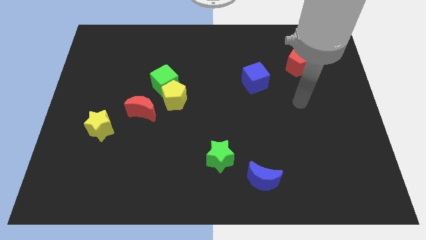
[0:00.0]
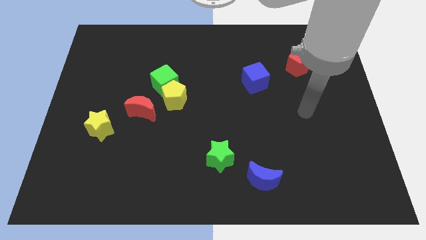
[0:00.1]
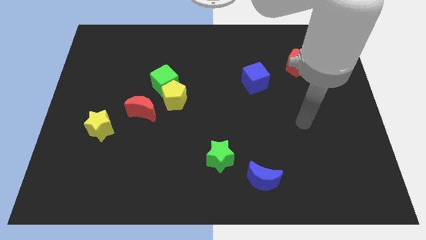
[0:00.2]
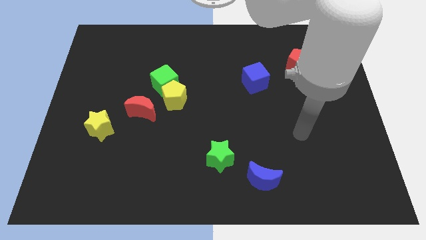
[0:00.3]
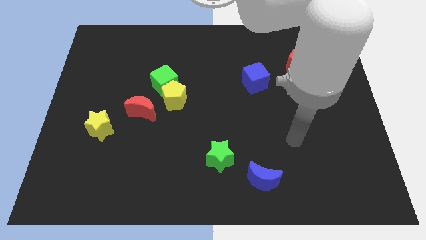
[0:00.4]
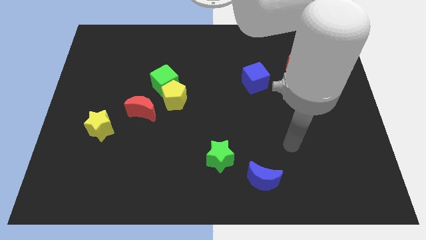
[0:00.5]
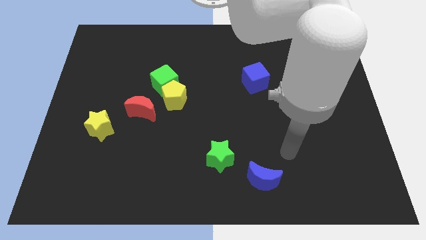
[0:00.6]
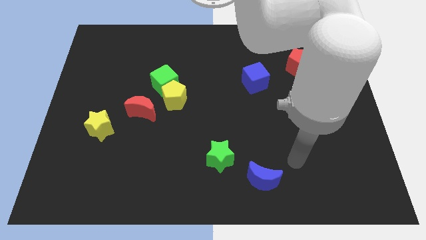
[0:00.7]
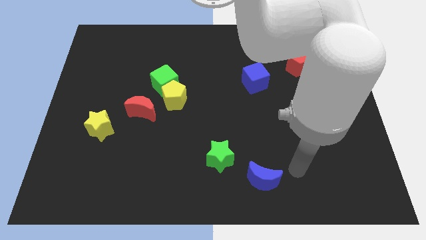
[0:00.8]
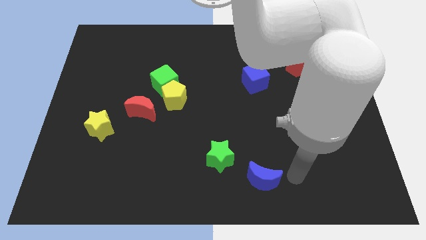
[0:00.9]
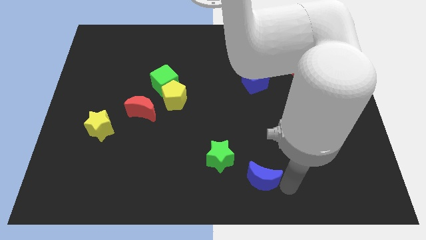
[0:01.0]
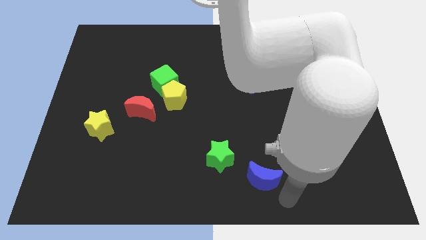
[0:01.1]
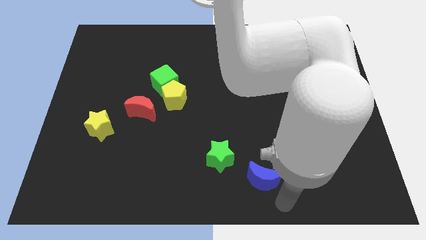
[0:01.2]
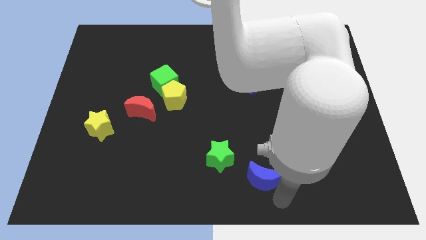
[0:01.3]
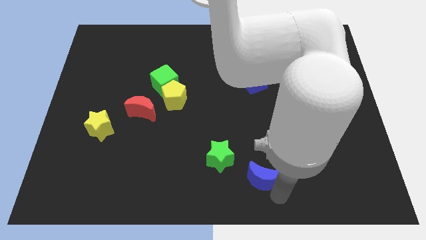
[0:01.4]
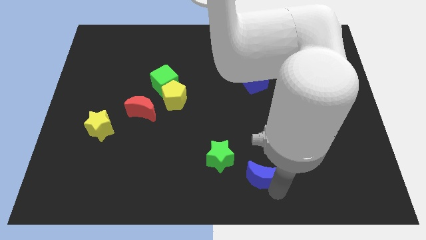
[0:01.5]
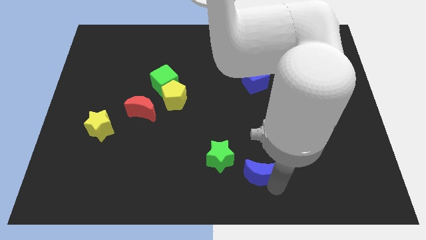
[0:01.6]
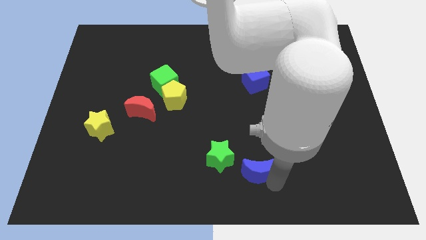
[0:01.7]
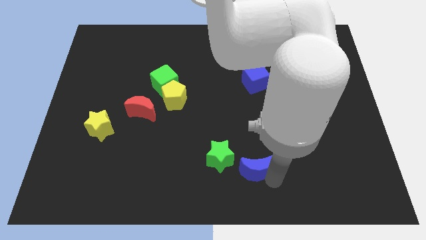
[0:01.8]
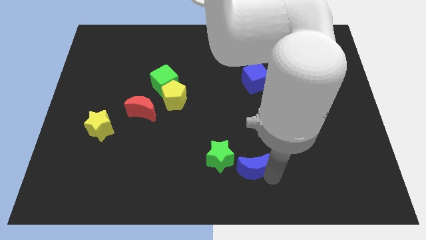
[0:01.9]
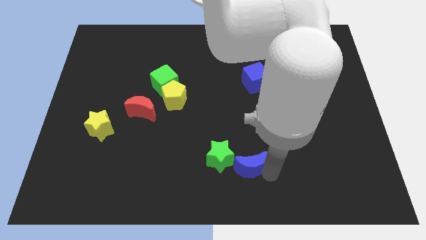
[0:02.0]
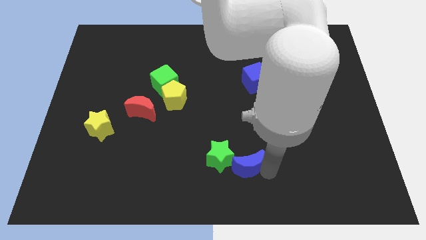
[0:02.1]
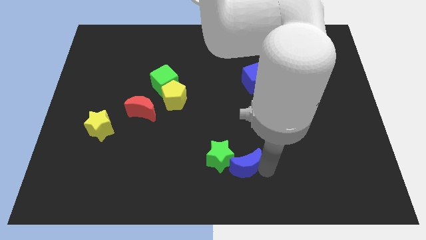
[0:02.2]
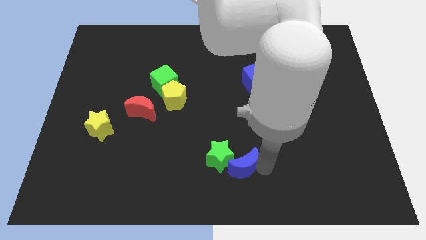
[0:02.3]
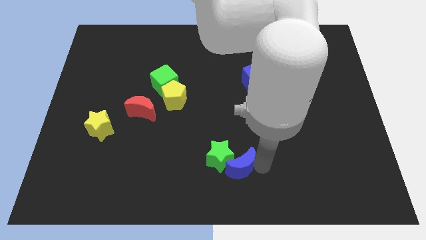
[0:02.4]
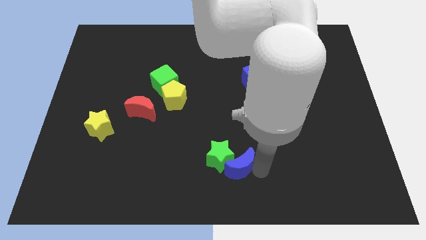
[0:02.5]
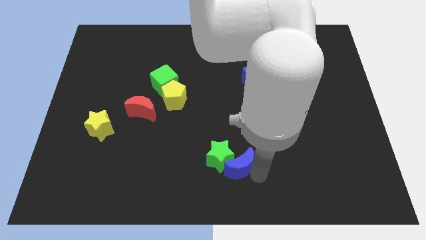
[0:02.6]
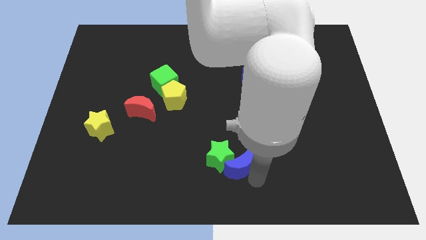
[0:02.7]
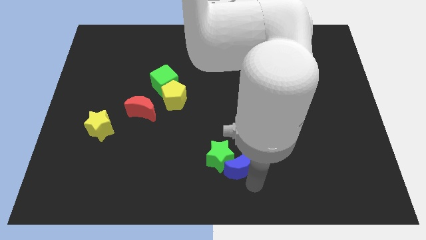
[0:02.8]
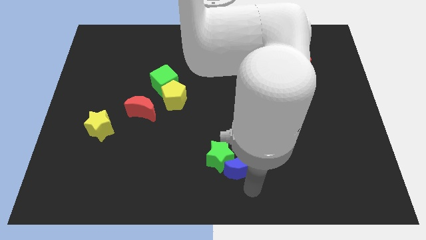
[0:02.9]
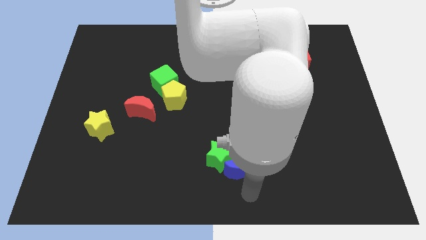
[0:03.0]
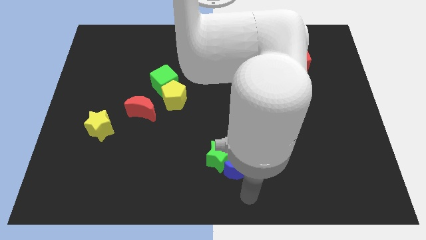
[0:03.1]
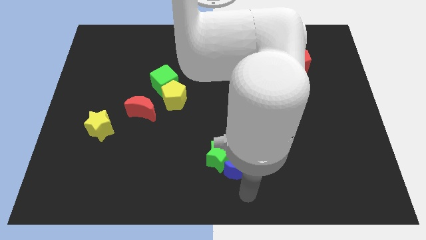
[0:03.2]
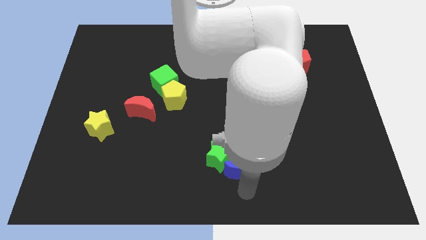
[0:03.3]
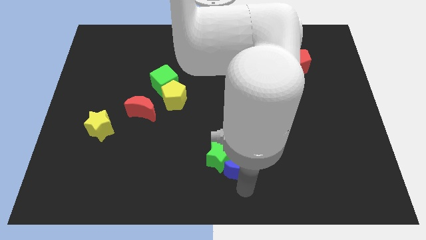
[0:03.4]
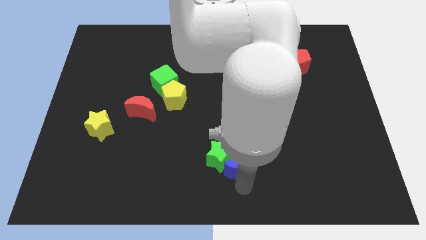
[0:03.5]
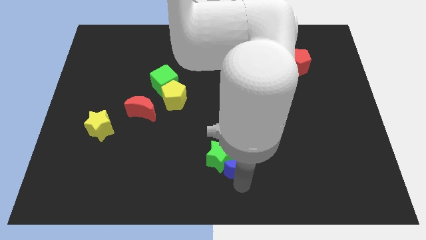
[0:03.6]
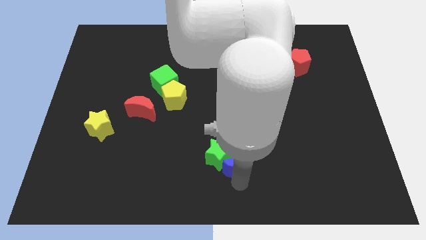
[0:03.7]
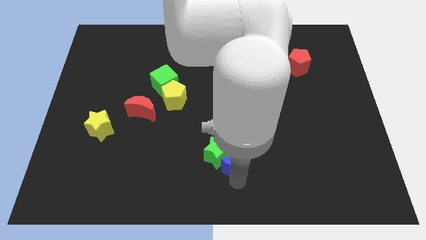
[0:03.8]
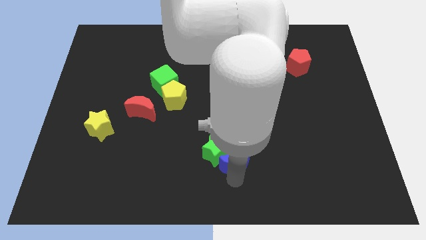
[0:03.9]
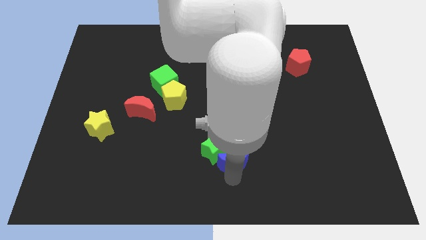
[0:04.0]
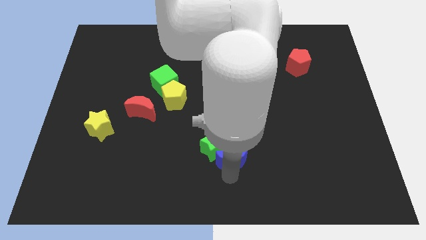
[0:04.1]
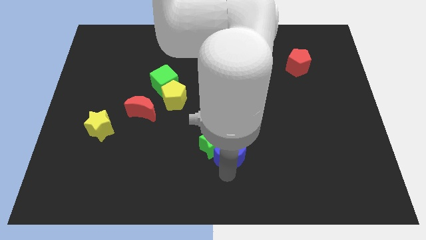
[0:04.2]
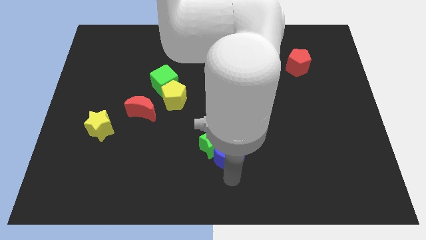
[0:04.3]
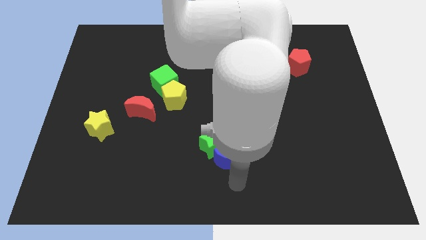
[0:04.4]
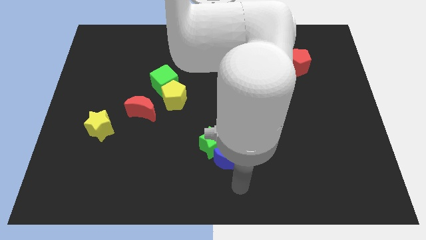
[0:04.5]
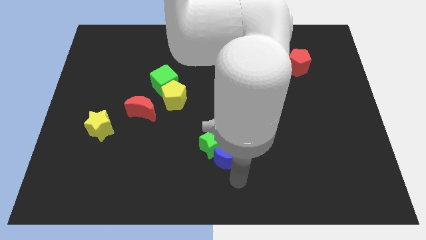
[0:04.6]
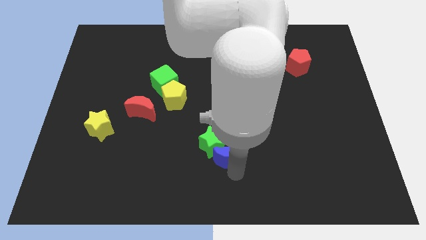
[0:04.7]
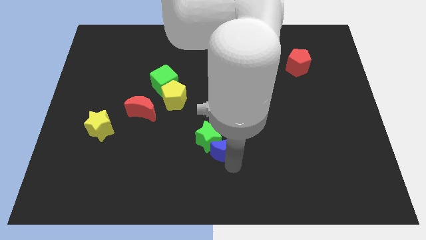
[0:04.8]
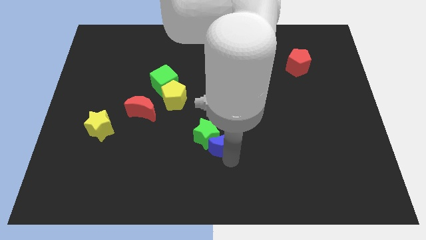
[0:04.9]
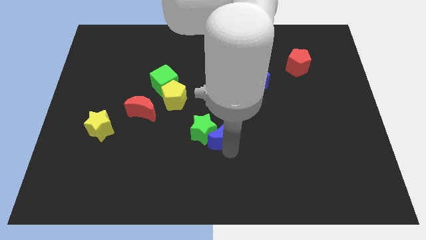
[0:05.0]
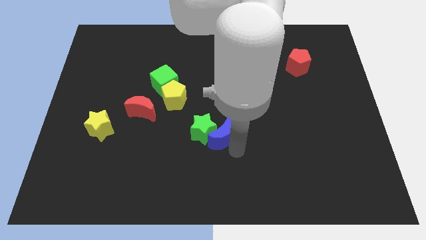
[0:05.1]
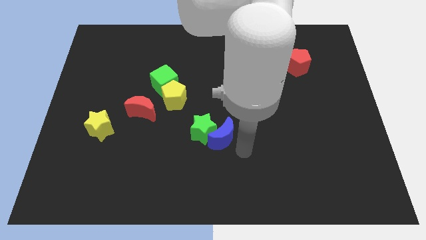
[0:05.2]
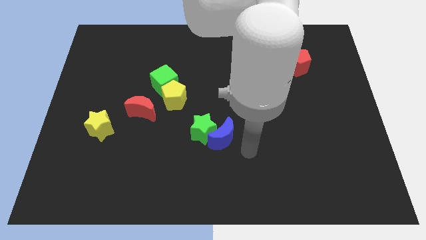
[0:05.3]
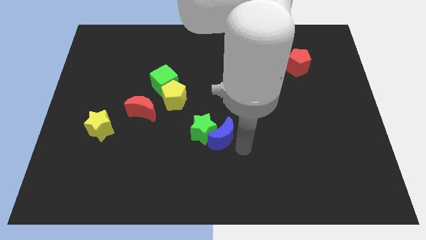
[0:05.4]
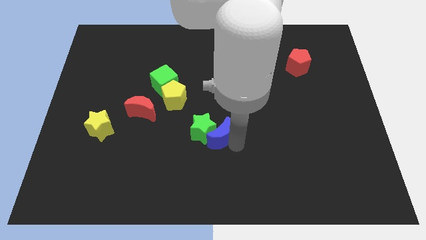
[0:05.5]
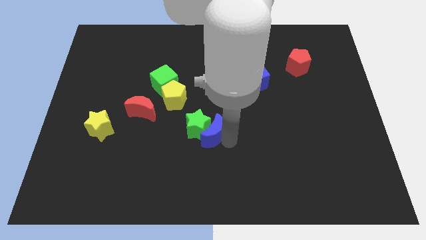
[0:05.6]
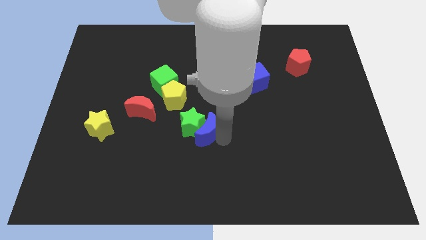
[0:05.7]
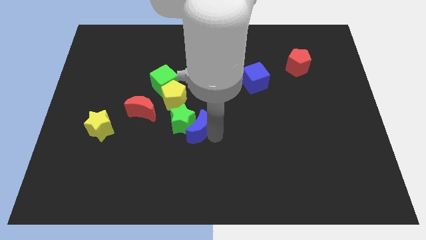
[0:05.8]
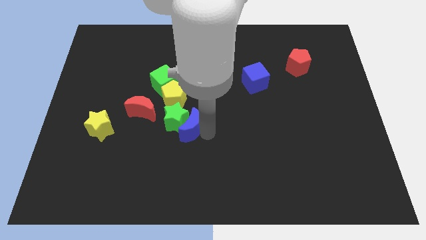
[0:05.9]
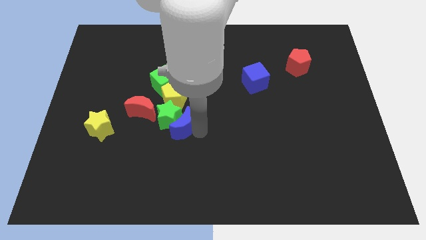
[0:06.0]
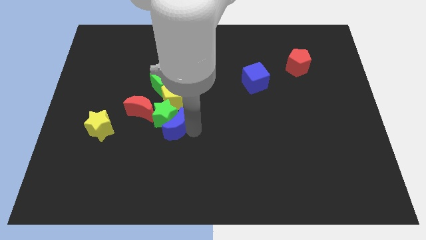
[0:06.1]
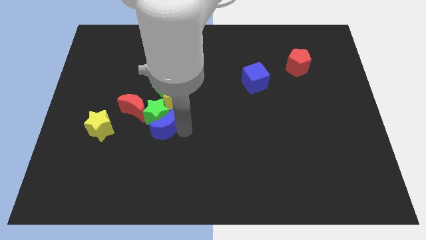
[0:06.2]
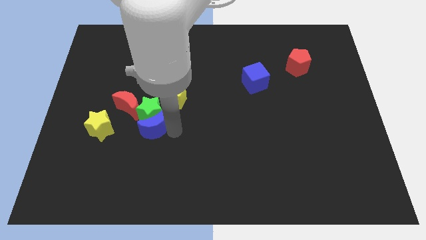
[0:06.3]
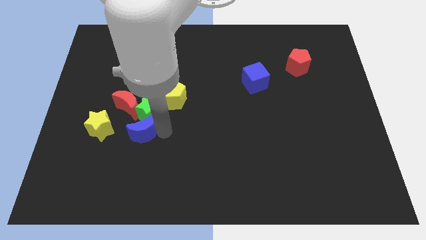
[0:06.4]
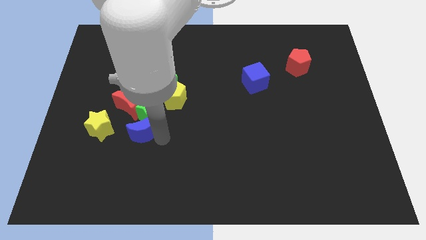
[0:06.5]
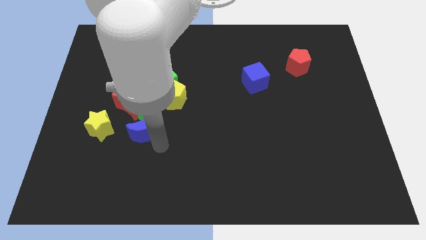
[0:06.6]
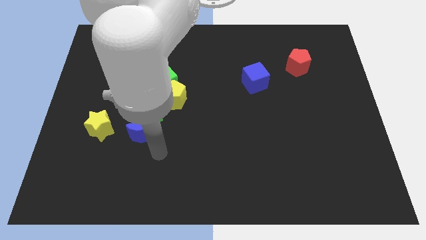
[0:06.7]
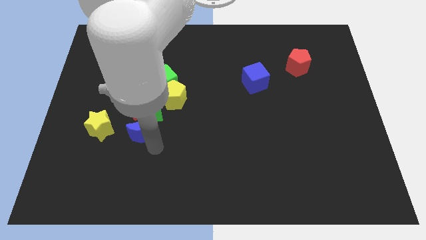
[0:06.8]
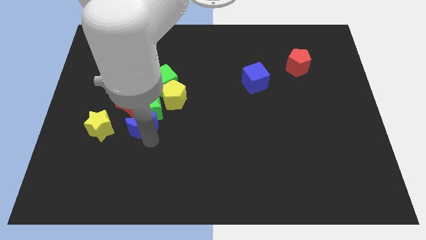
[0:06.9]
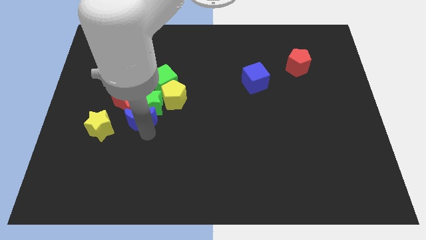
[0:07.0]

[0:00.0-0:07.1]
push the blue moon towards the red moon
